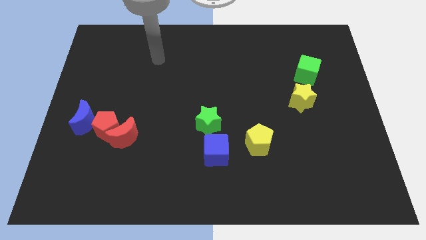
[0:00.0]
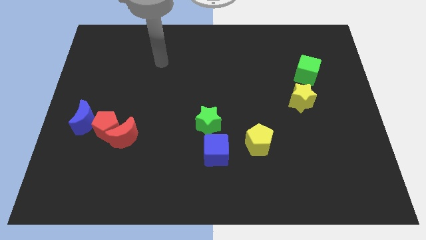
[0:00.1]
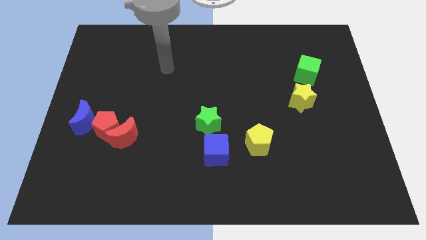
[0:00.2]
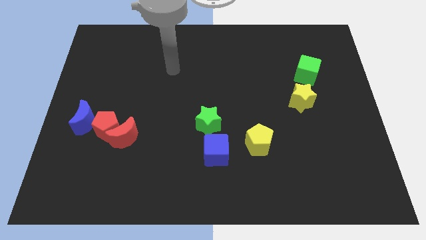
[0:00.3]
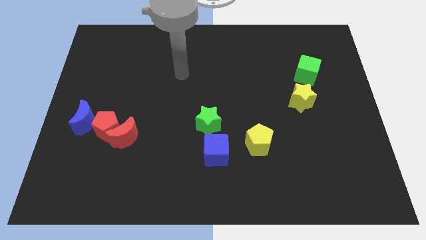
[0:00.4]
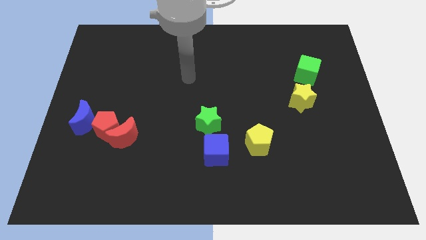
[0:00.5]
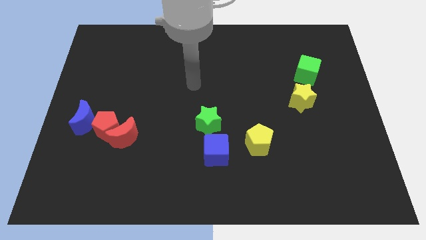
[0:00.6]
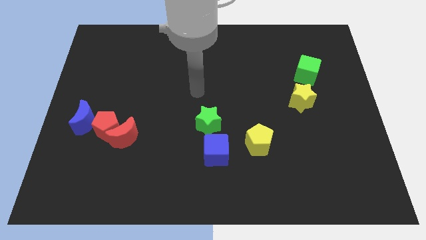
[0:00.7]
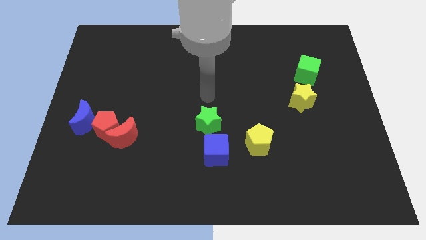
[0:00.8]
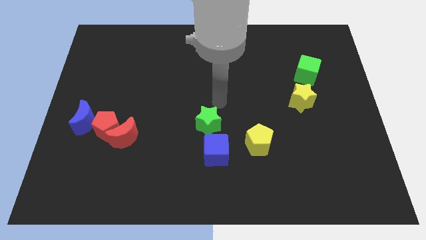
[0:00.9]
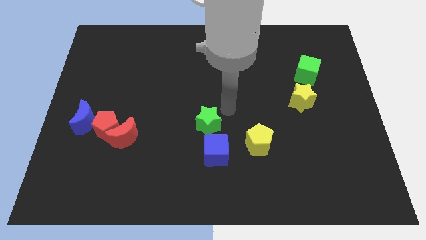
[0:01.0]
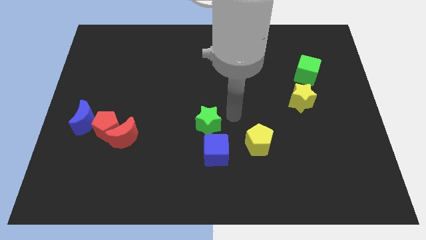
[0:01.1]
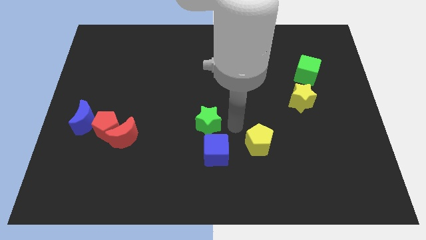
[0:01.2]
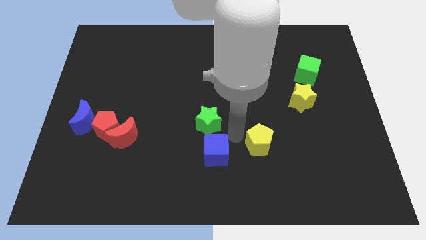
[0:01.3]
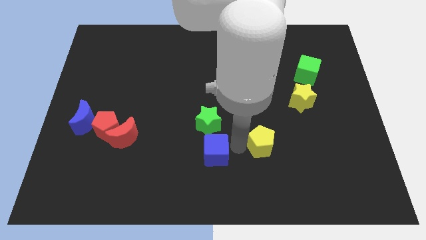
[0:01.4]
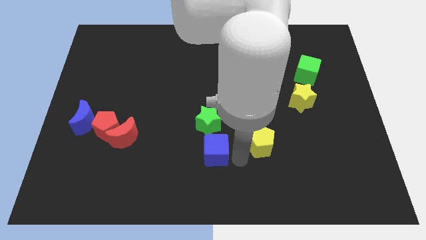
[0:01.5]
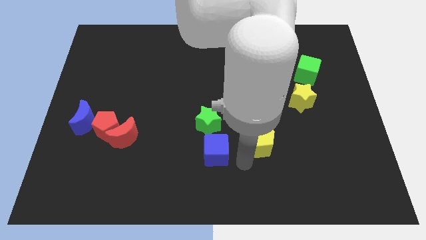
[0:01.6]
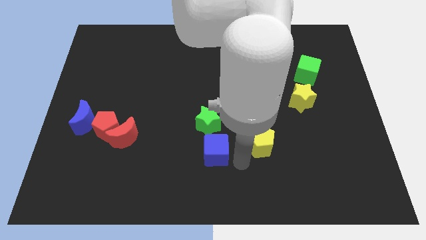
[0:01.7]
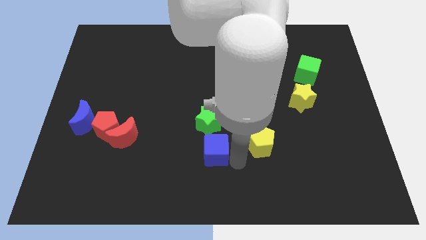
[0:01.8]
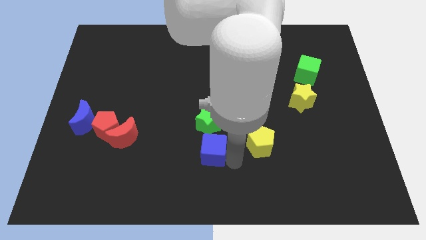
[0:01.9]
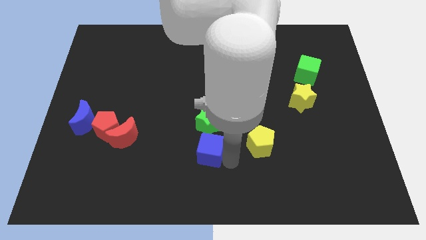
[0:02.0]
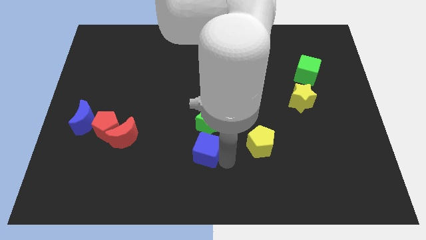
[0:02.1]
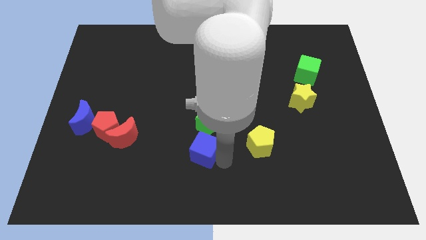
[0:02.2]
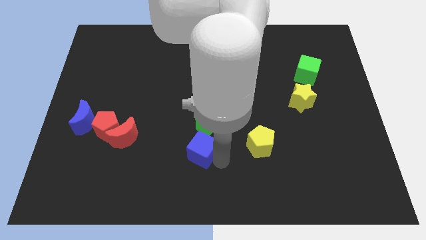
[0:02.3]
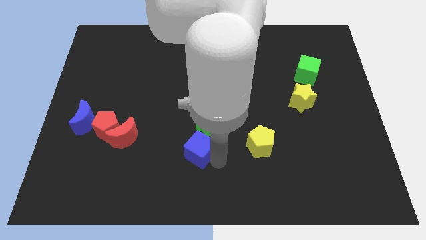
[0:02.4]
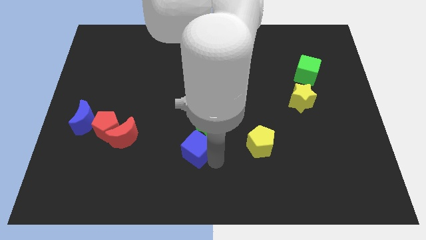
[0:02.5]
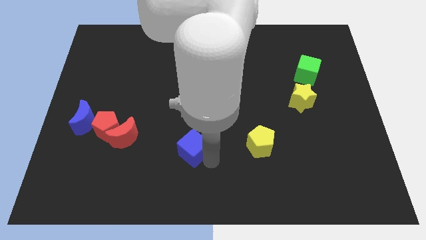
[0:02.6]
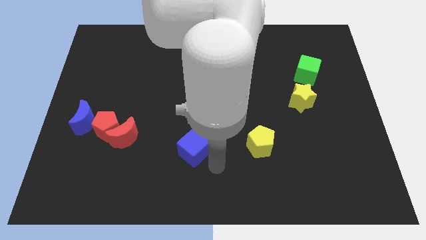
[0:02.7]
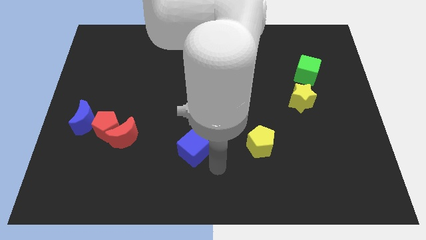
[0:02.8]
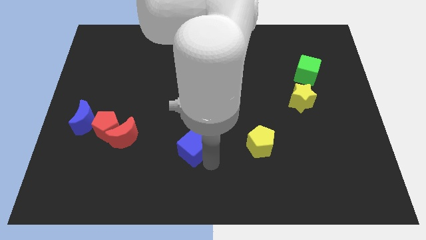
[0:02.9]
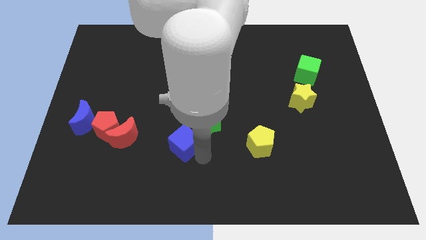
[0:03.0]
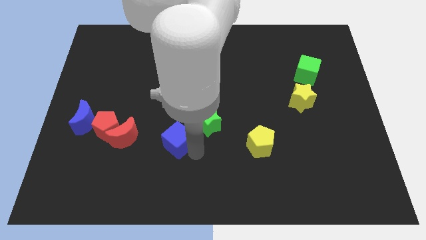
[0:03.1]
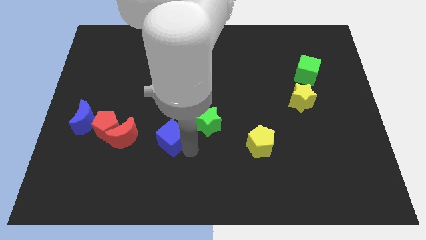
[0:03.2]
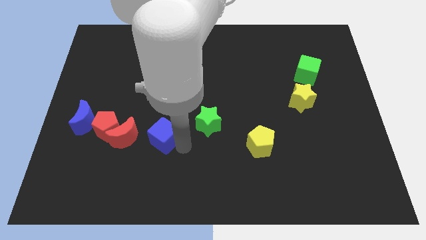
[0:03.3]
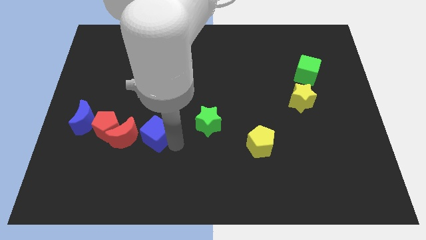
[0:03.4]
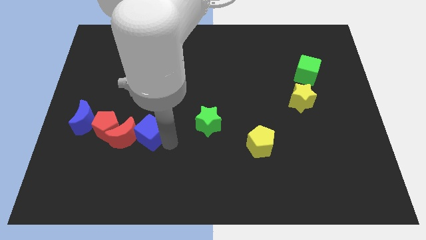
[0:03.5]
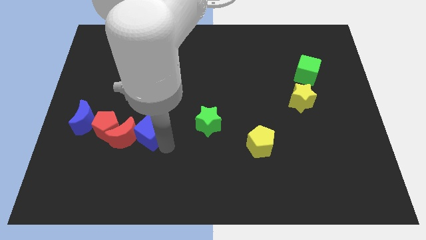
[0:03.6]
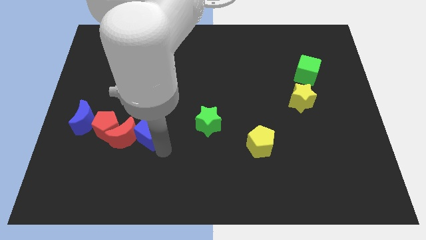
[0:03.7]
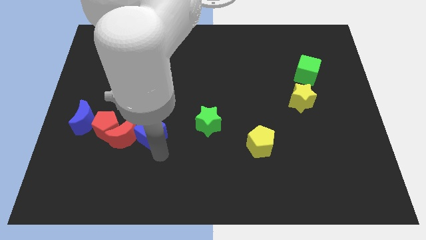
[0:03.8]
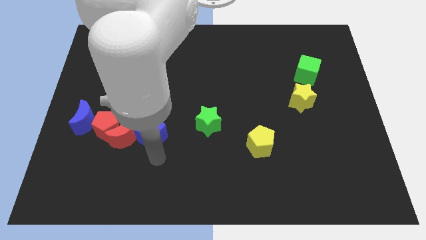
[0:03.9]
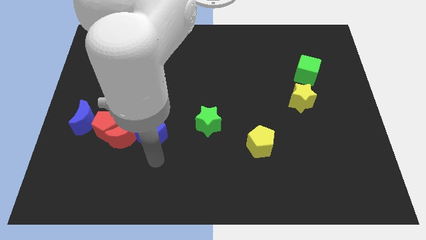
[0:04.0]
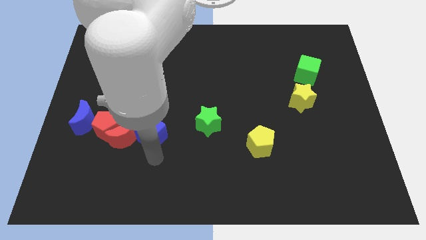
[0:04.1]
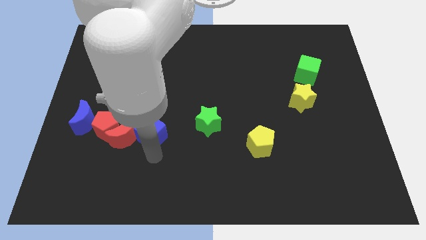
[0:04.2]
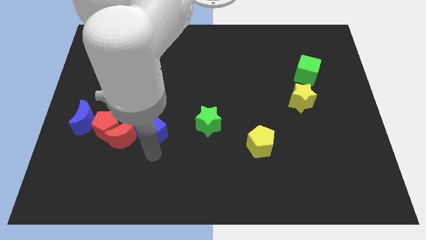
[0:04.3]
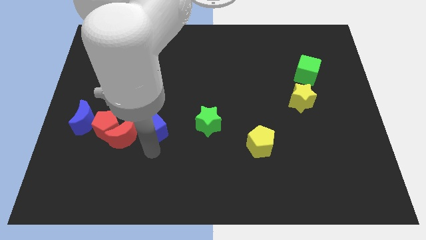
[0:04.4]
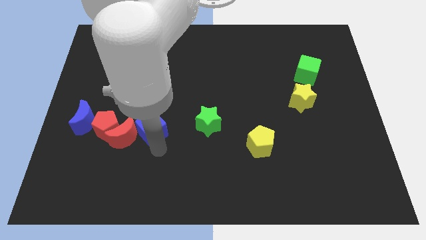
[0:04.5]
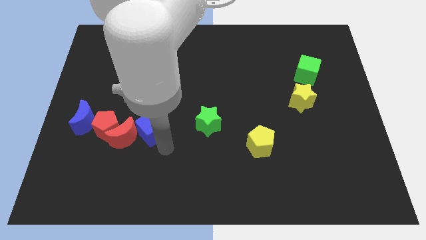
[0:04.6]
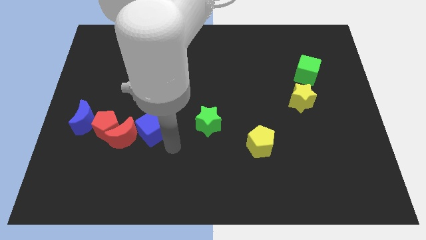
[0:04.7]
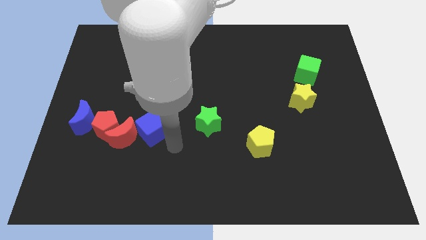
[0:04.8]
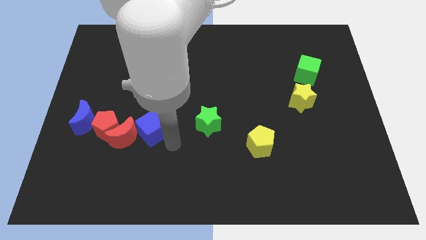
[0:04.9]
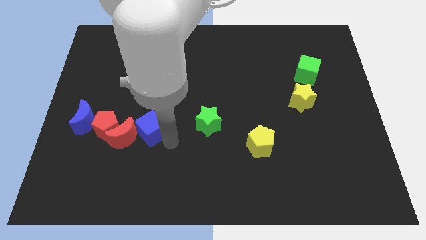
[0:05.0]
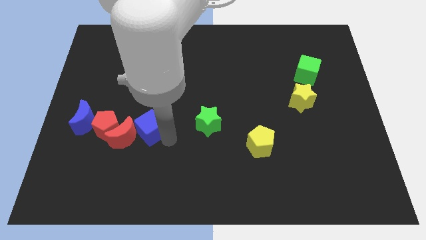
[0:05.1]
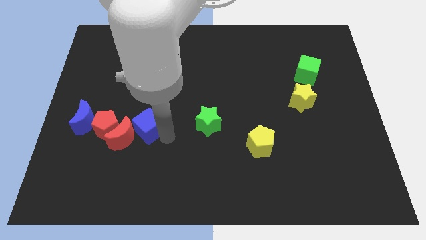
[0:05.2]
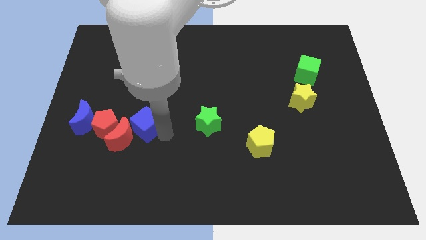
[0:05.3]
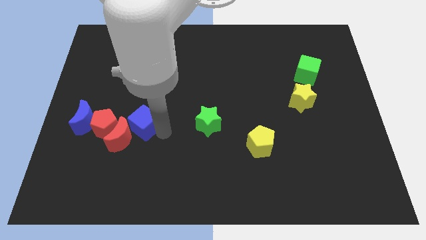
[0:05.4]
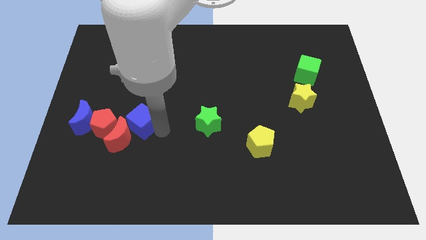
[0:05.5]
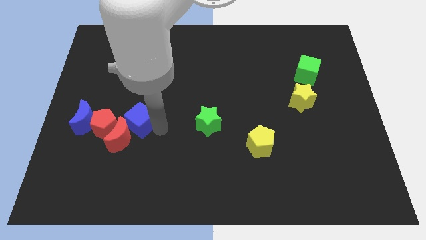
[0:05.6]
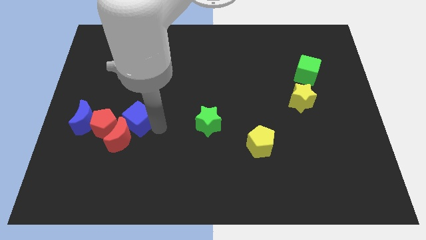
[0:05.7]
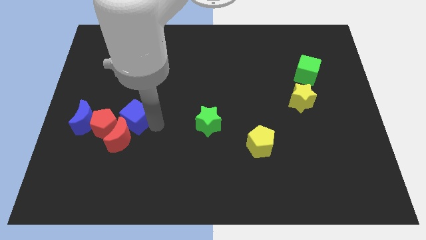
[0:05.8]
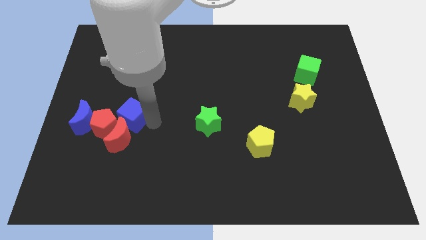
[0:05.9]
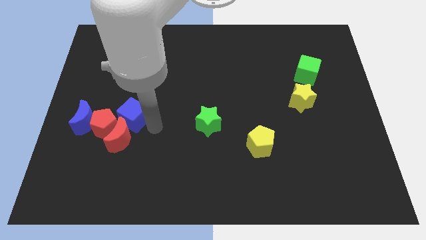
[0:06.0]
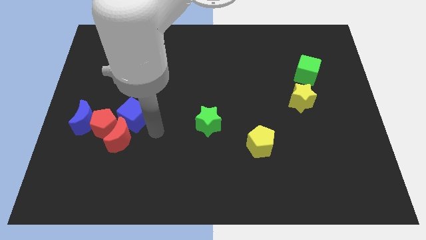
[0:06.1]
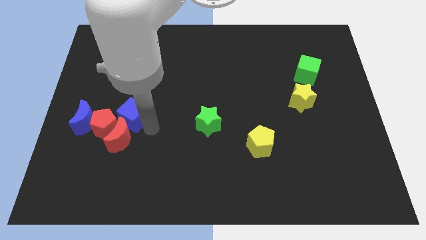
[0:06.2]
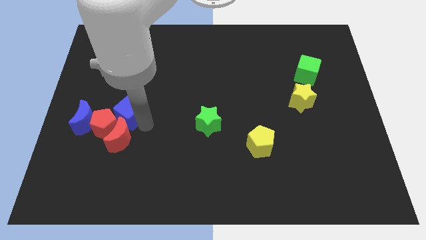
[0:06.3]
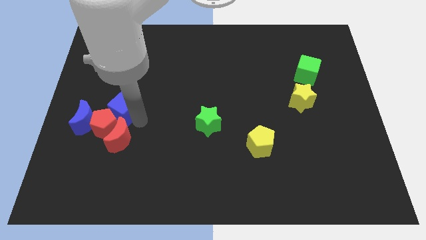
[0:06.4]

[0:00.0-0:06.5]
push the blue cube diagonally up and to the right of the blue moon

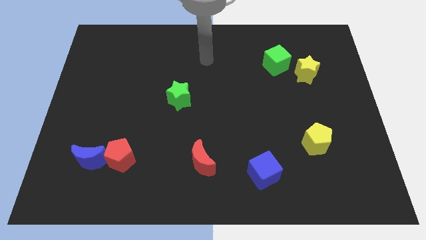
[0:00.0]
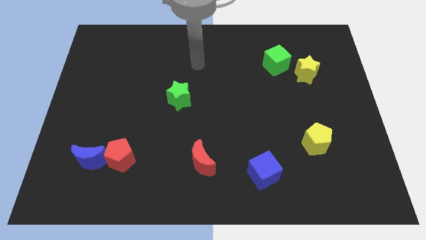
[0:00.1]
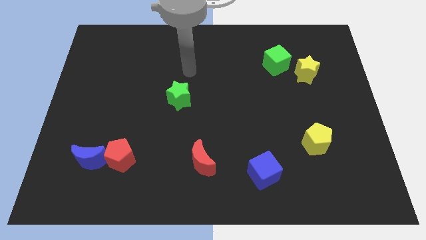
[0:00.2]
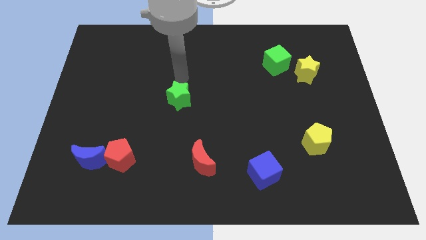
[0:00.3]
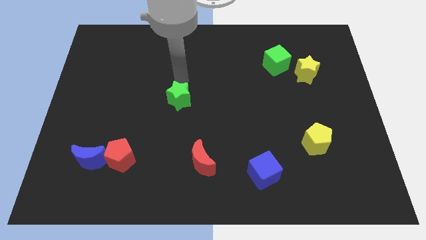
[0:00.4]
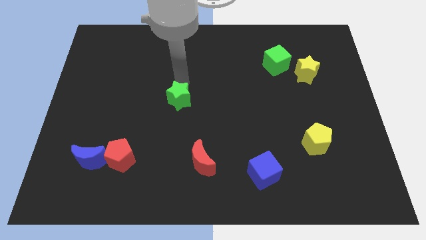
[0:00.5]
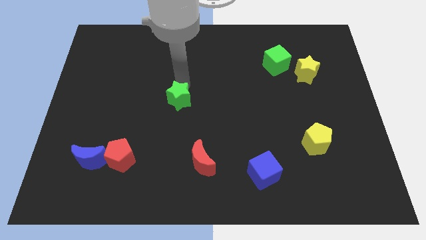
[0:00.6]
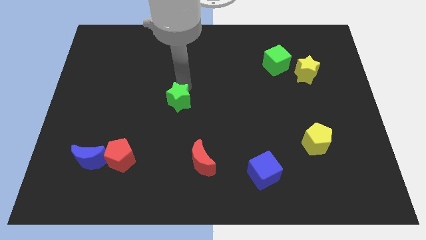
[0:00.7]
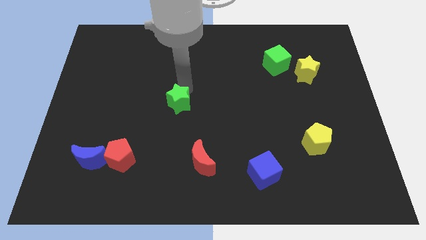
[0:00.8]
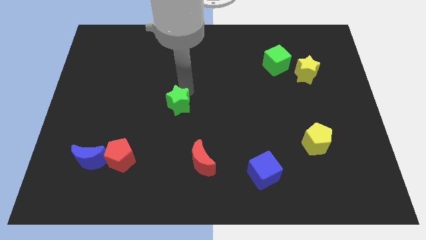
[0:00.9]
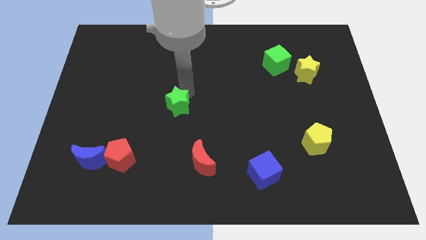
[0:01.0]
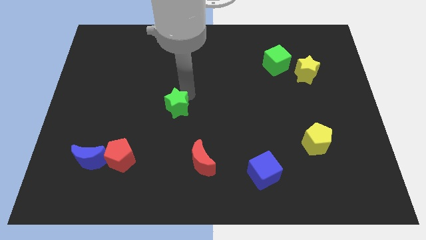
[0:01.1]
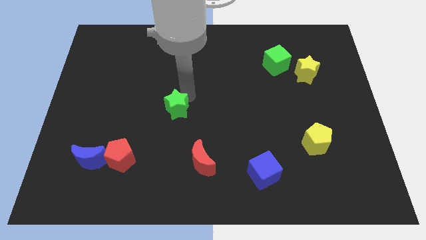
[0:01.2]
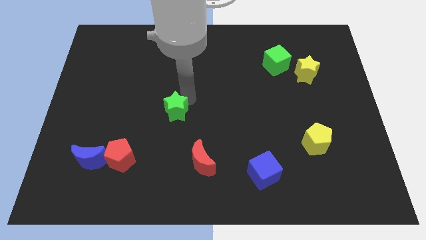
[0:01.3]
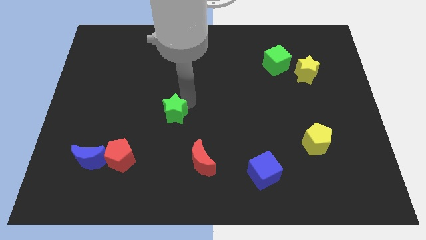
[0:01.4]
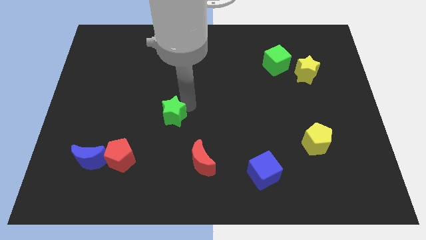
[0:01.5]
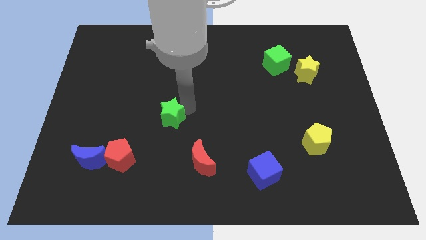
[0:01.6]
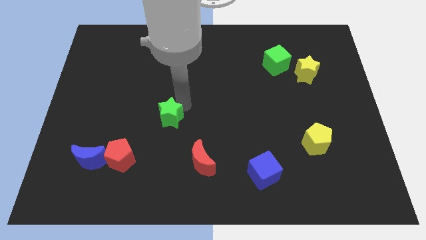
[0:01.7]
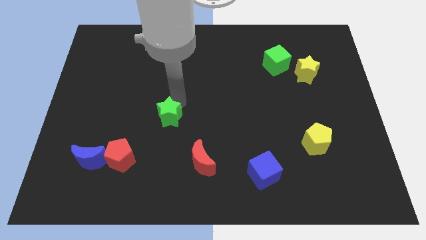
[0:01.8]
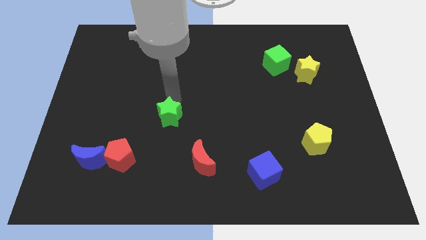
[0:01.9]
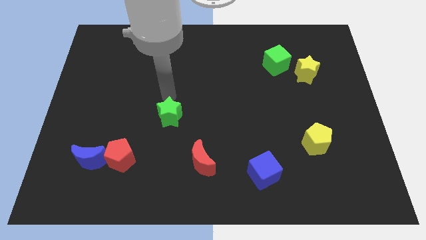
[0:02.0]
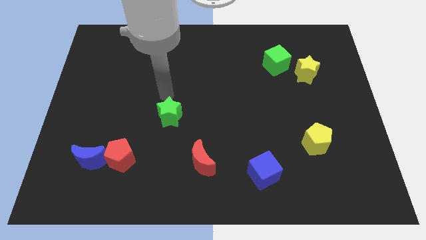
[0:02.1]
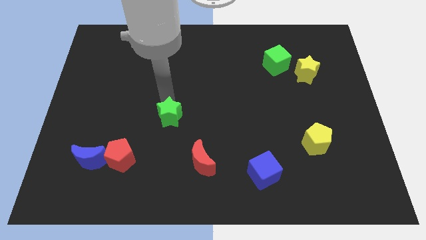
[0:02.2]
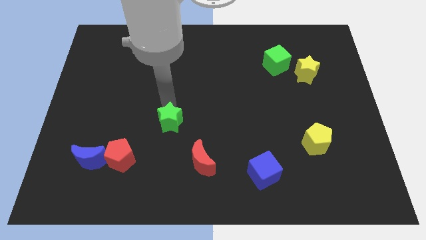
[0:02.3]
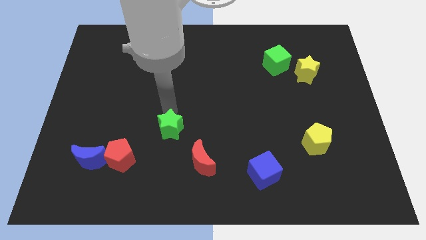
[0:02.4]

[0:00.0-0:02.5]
move the green star diagonally up and to the left of the red moon
